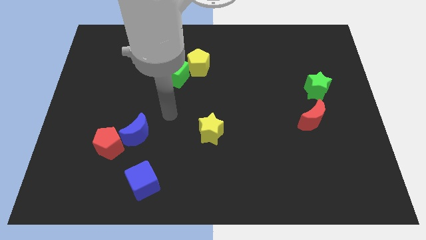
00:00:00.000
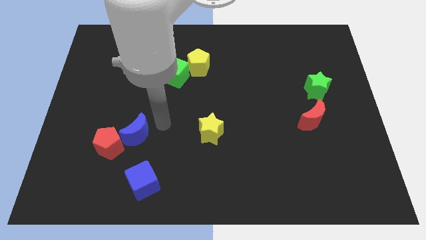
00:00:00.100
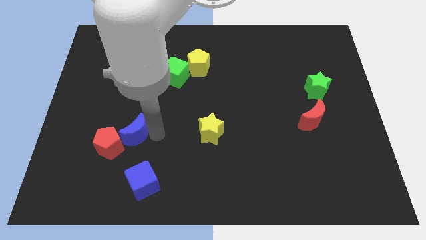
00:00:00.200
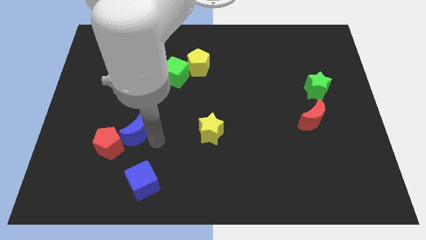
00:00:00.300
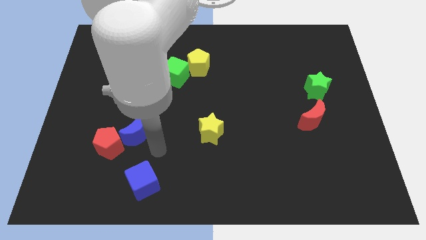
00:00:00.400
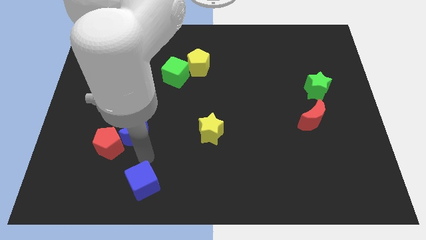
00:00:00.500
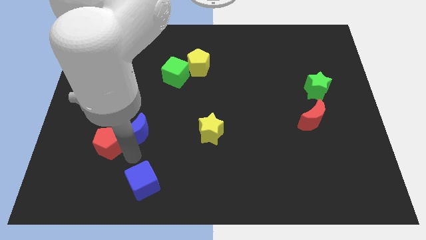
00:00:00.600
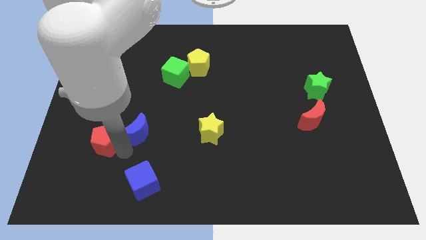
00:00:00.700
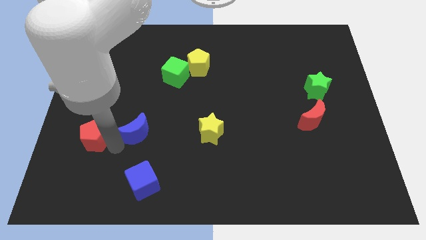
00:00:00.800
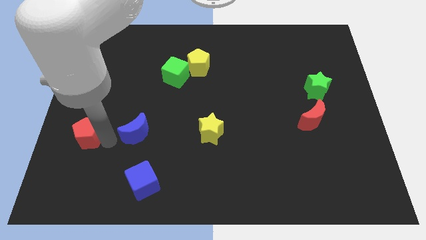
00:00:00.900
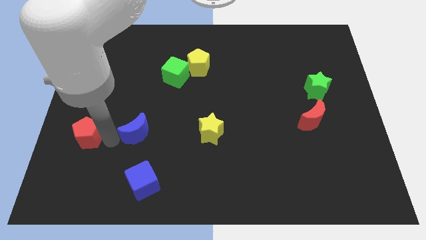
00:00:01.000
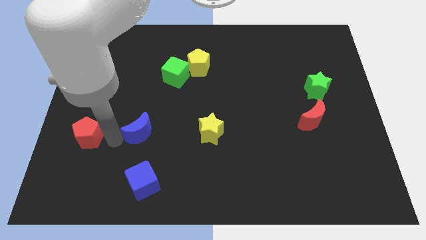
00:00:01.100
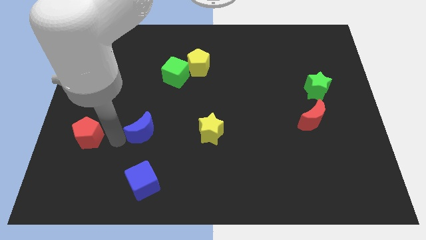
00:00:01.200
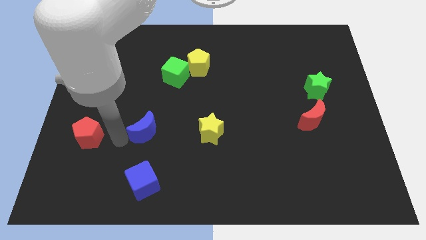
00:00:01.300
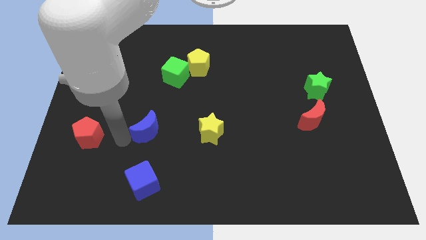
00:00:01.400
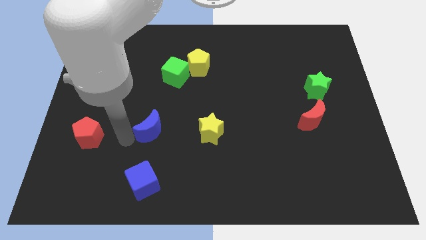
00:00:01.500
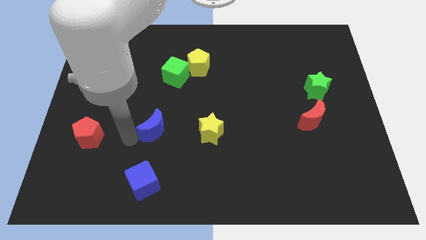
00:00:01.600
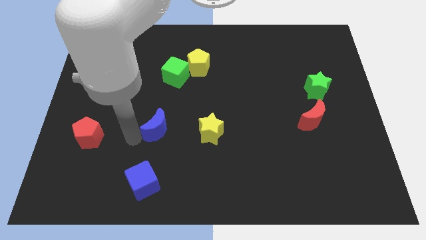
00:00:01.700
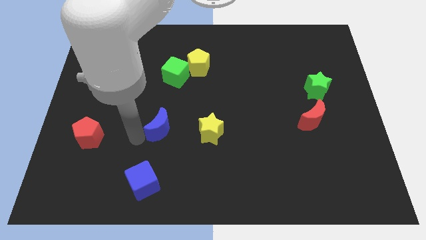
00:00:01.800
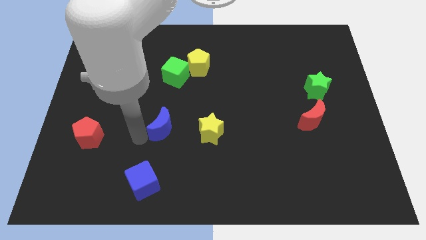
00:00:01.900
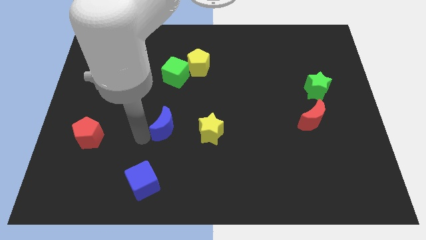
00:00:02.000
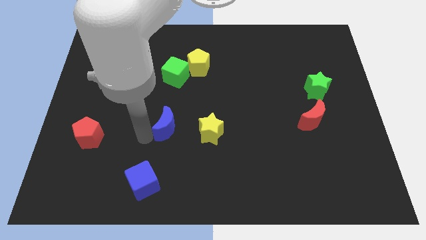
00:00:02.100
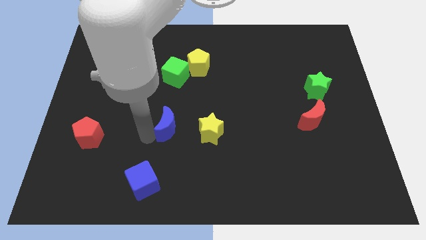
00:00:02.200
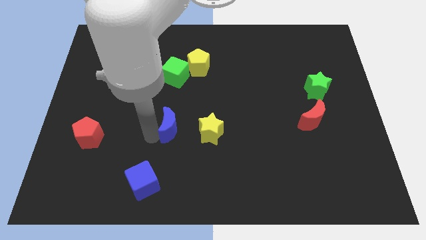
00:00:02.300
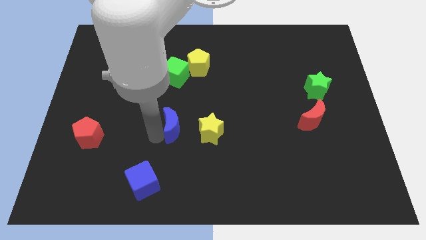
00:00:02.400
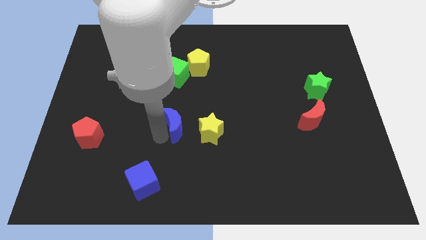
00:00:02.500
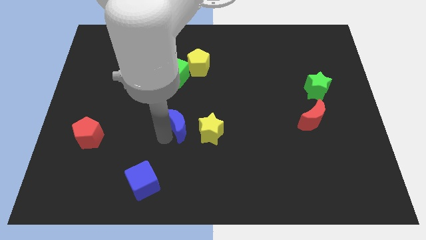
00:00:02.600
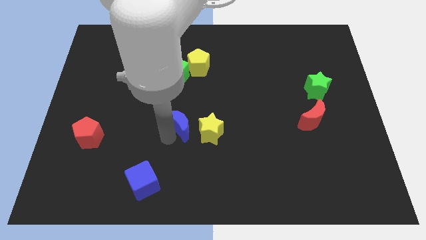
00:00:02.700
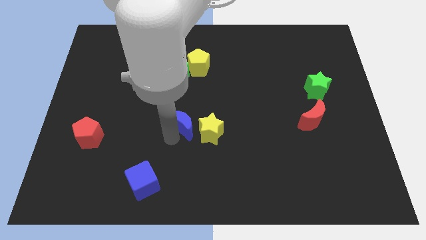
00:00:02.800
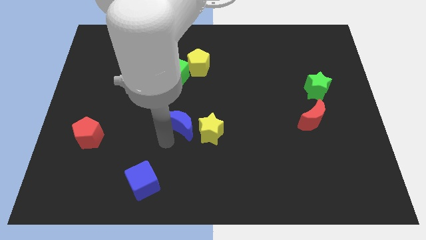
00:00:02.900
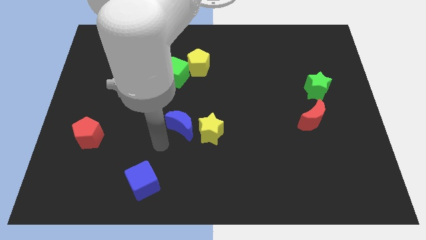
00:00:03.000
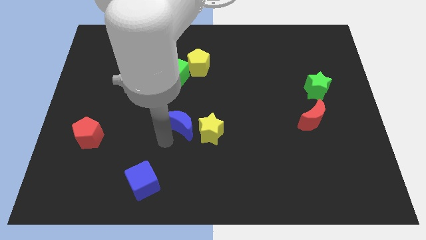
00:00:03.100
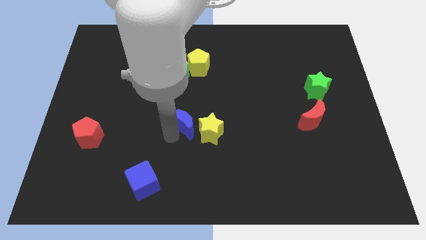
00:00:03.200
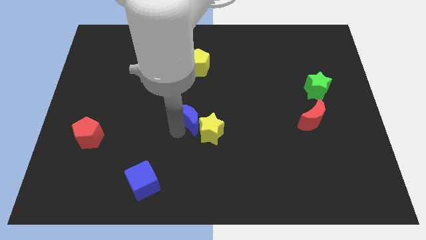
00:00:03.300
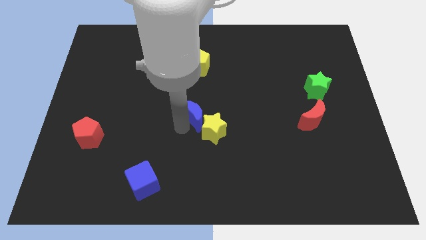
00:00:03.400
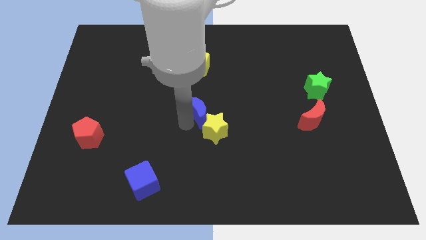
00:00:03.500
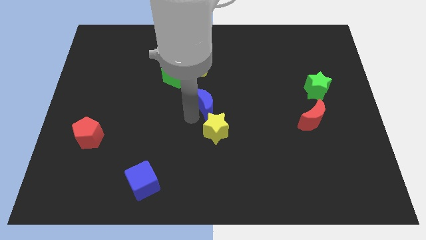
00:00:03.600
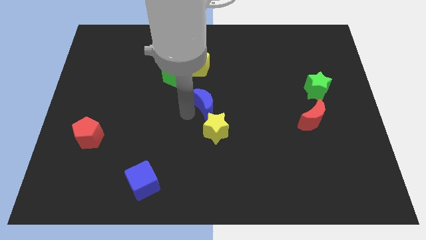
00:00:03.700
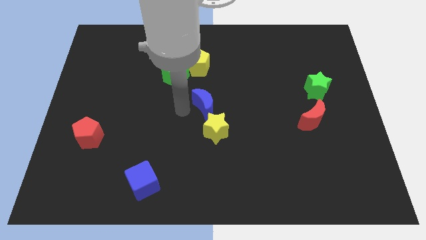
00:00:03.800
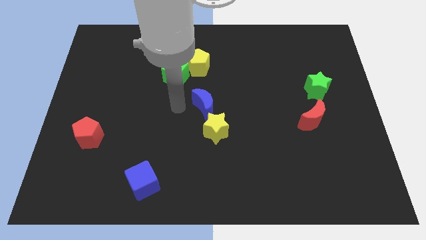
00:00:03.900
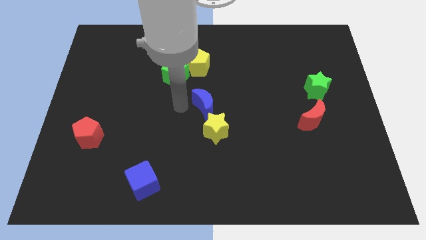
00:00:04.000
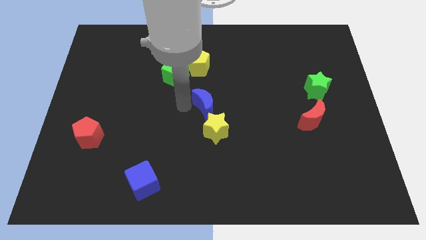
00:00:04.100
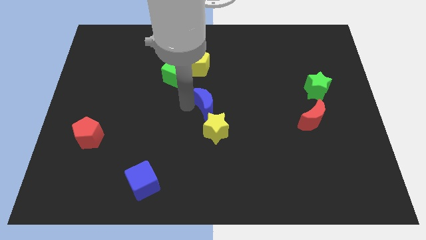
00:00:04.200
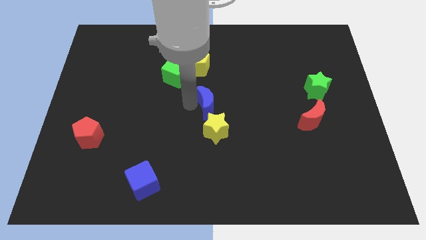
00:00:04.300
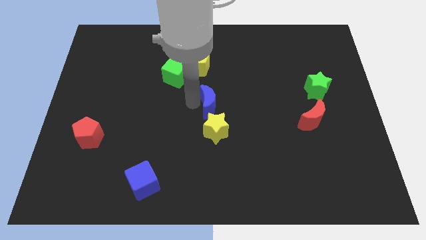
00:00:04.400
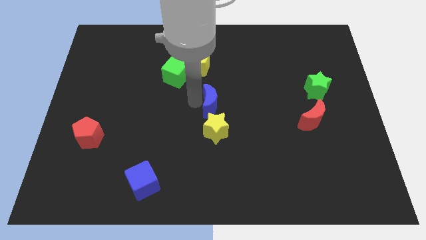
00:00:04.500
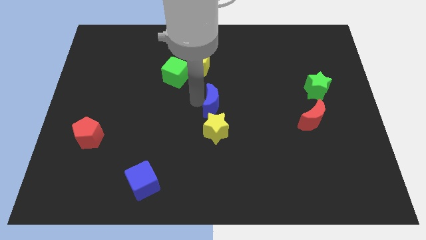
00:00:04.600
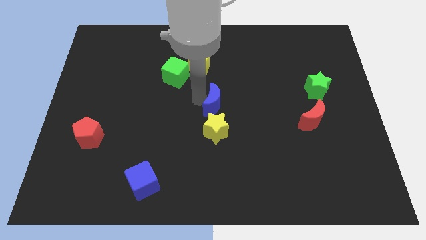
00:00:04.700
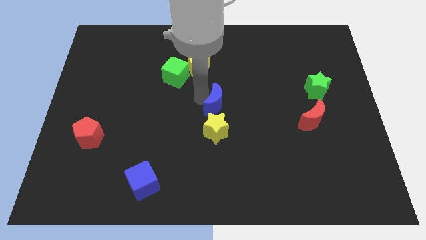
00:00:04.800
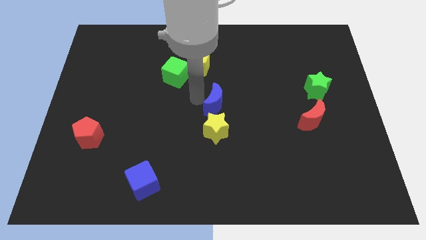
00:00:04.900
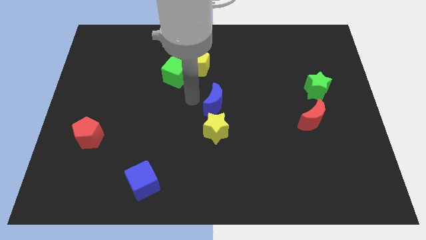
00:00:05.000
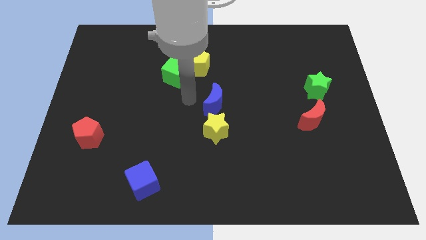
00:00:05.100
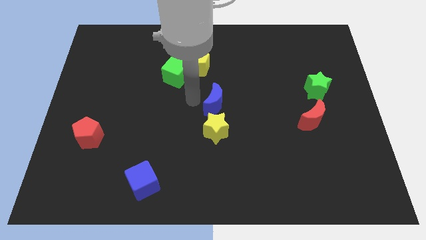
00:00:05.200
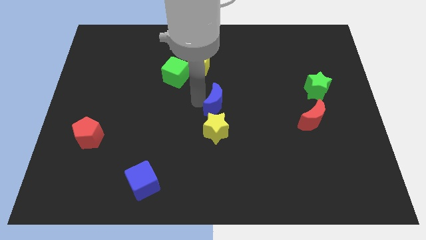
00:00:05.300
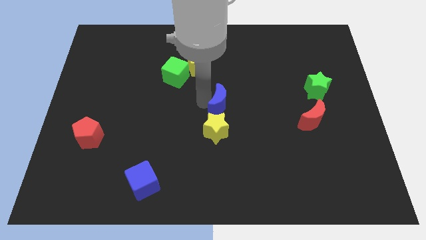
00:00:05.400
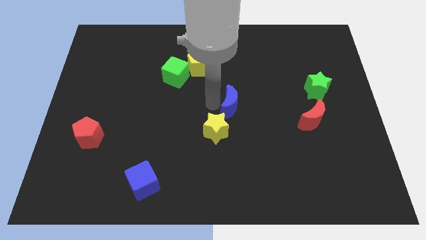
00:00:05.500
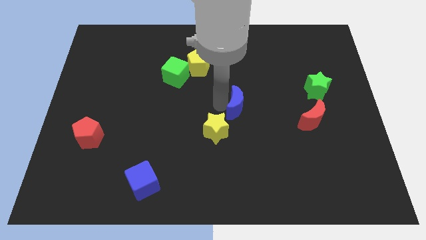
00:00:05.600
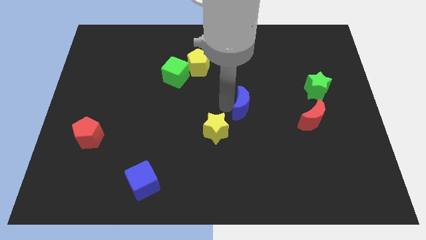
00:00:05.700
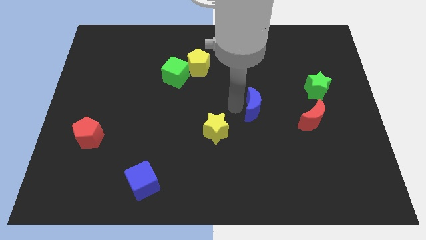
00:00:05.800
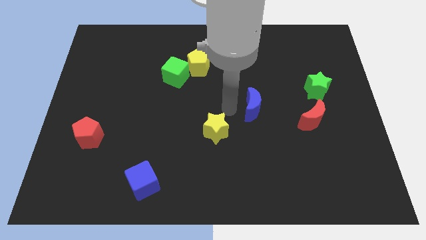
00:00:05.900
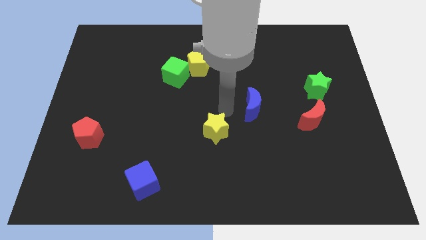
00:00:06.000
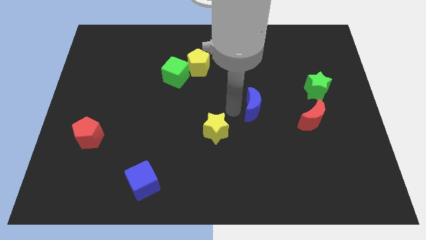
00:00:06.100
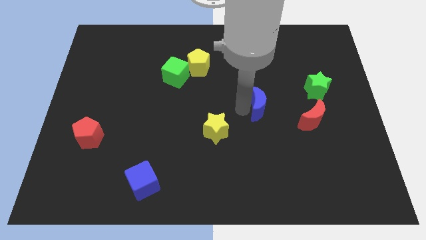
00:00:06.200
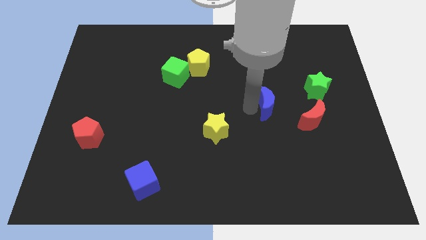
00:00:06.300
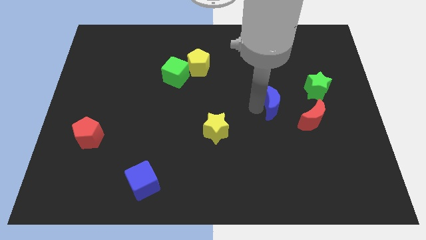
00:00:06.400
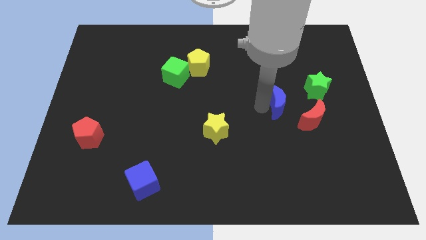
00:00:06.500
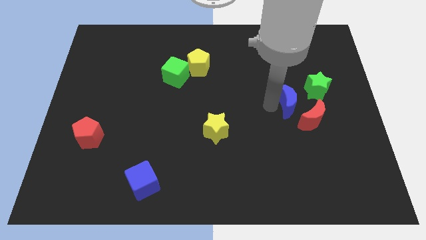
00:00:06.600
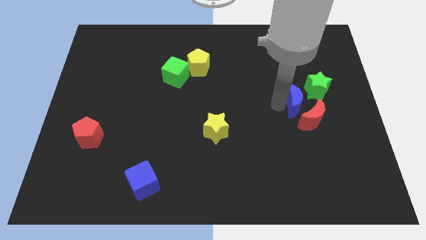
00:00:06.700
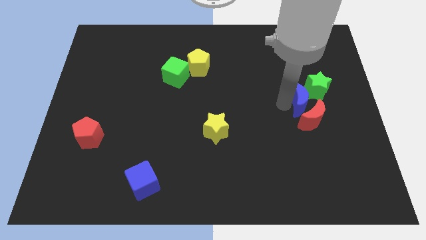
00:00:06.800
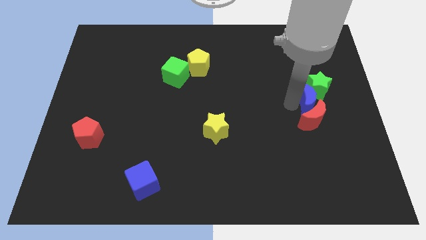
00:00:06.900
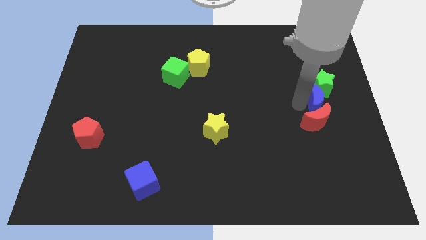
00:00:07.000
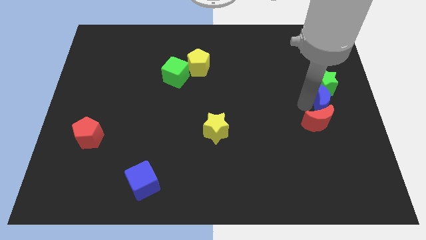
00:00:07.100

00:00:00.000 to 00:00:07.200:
push the blue moon to the right side of the board
